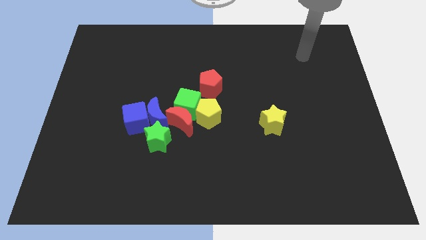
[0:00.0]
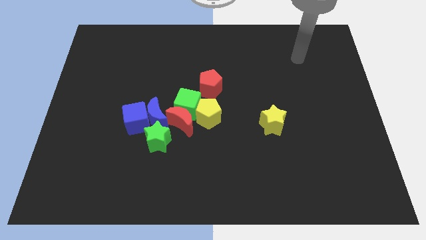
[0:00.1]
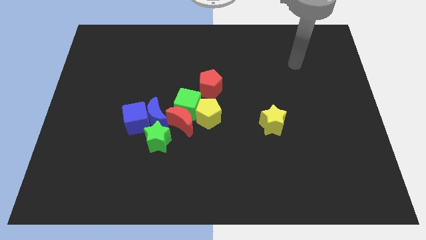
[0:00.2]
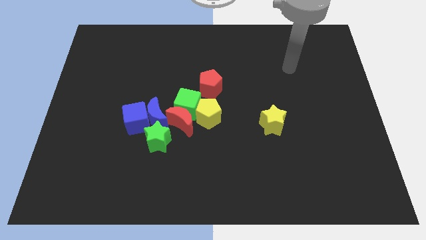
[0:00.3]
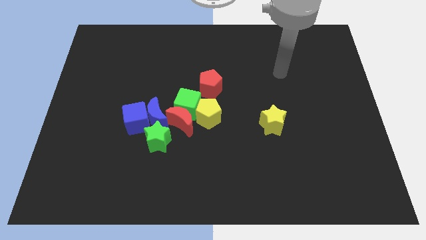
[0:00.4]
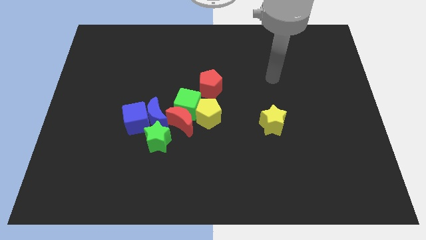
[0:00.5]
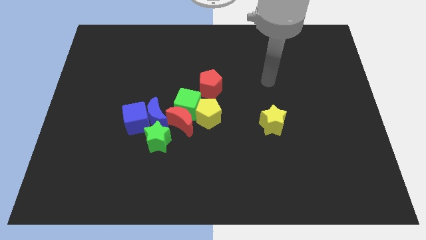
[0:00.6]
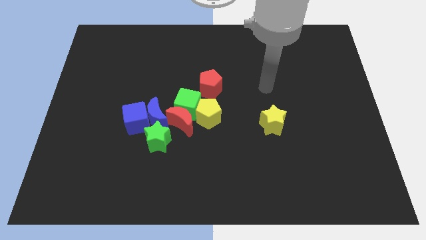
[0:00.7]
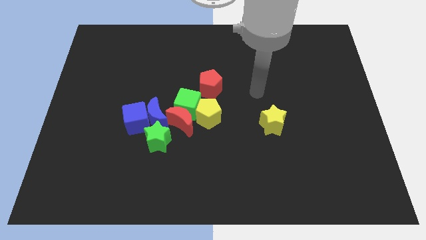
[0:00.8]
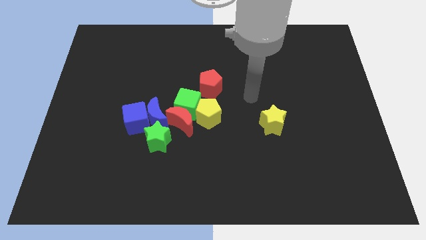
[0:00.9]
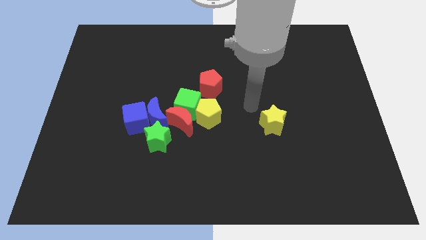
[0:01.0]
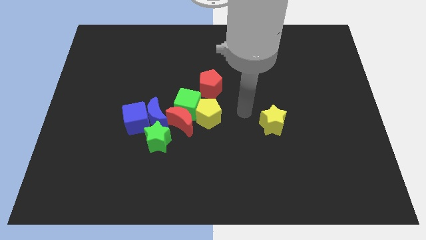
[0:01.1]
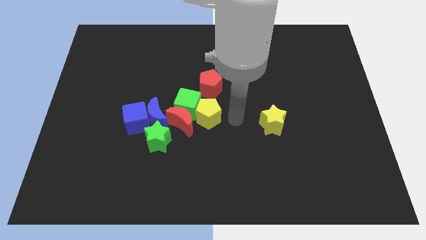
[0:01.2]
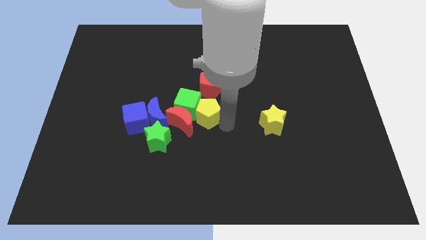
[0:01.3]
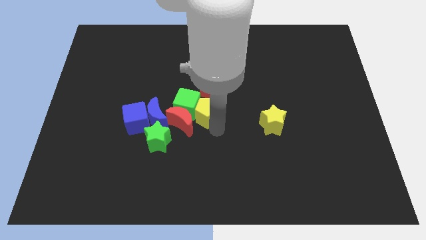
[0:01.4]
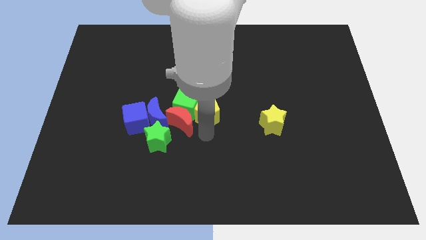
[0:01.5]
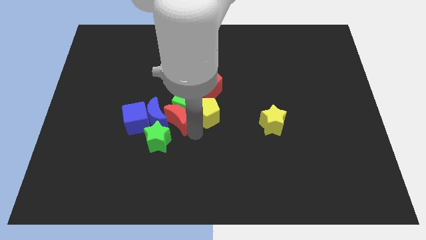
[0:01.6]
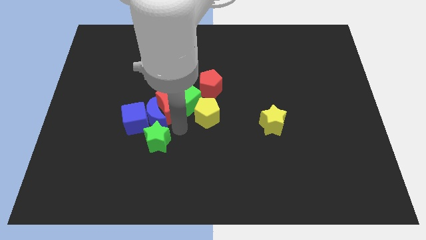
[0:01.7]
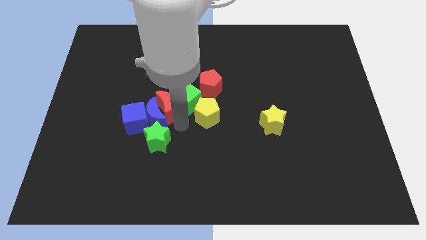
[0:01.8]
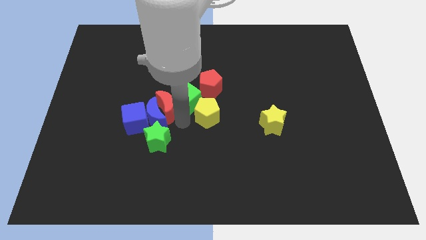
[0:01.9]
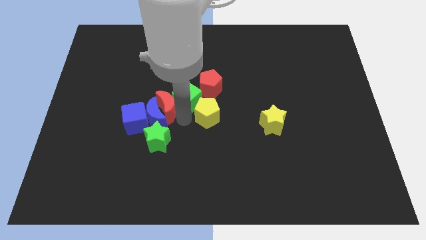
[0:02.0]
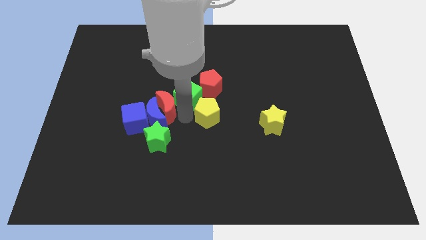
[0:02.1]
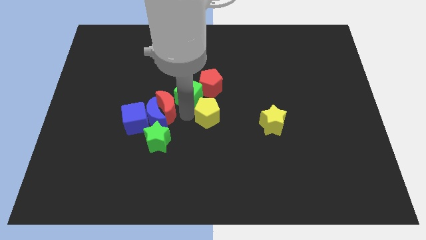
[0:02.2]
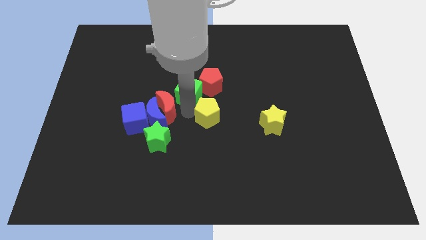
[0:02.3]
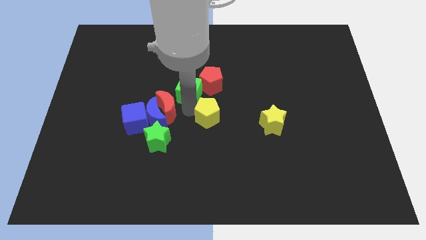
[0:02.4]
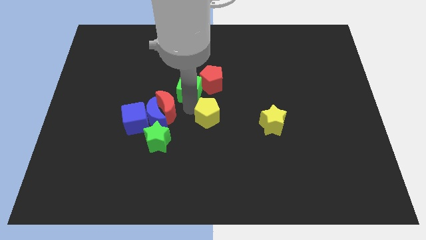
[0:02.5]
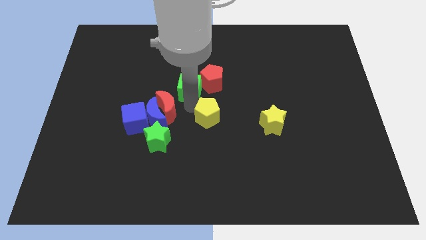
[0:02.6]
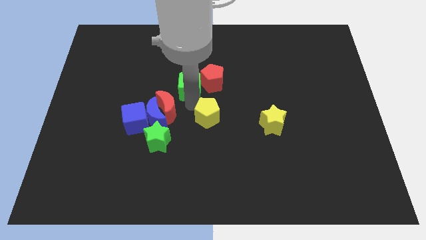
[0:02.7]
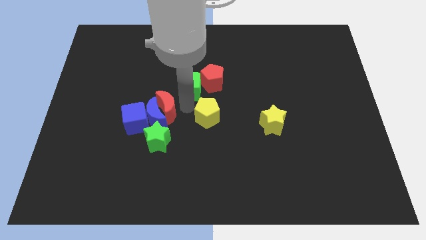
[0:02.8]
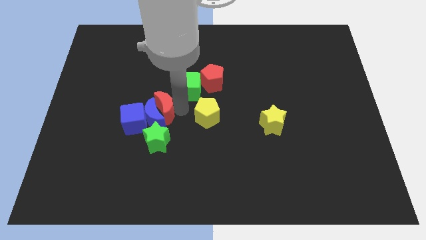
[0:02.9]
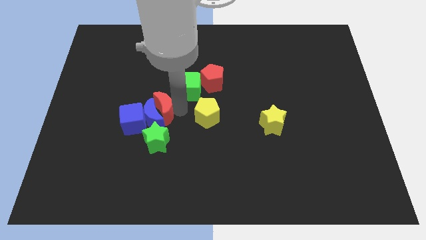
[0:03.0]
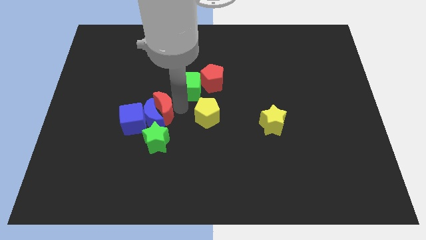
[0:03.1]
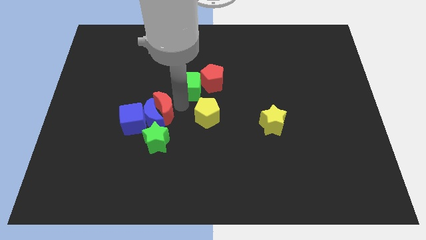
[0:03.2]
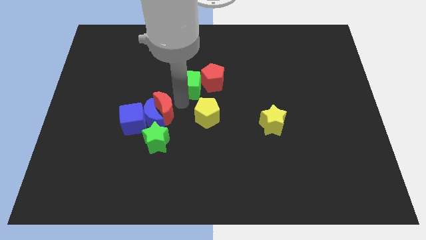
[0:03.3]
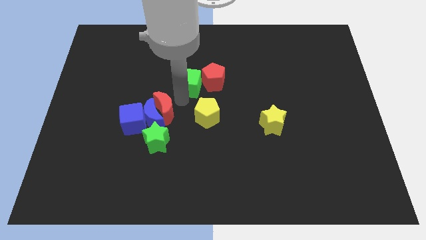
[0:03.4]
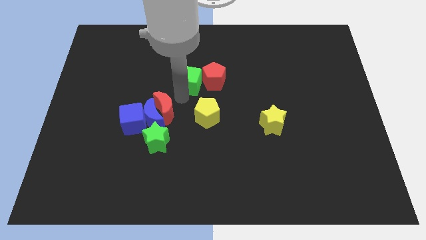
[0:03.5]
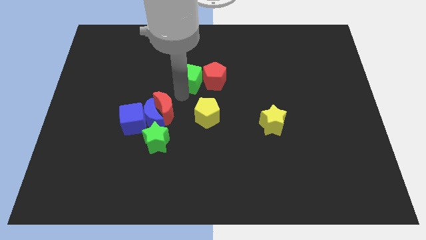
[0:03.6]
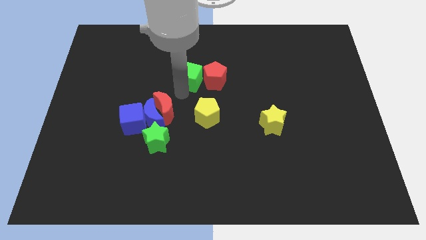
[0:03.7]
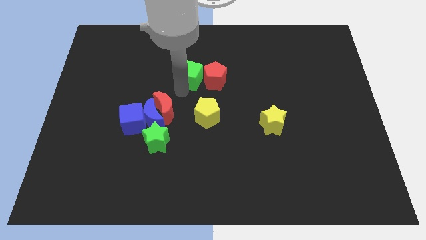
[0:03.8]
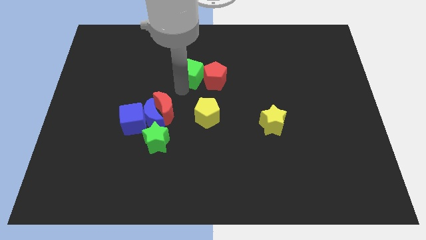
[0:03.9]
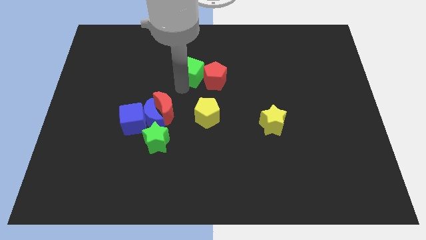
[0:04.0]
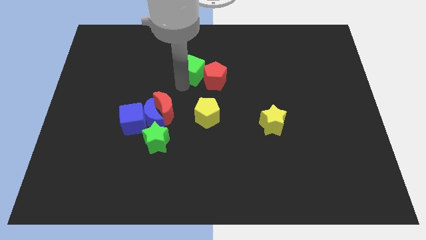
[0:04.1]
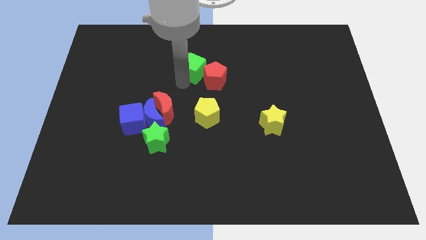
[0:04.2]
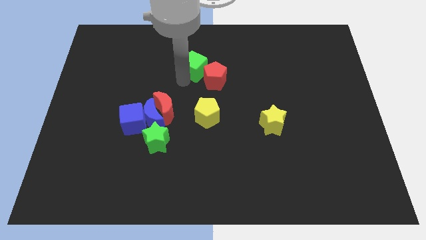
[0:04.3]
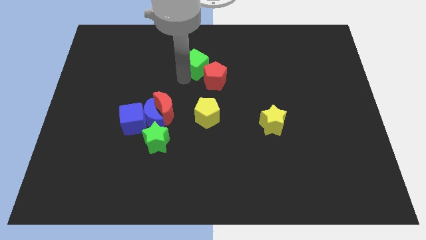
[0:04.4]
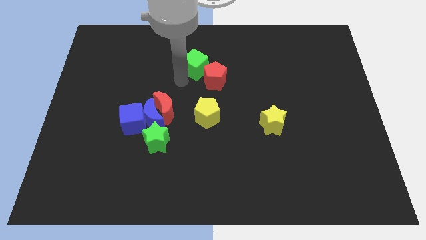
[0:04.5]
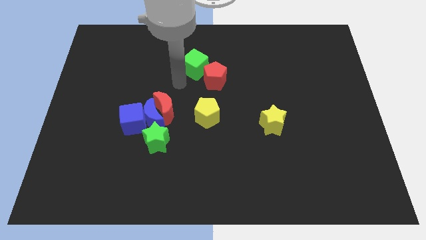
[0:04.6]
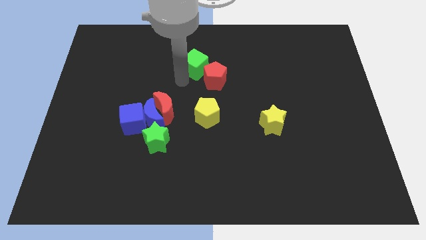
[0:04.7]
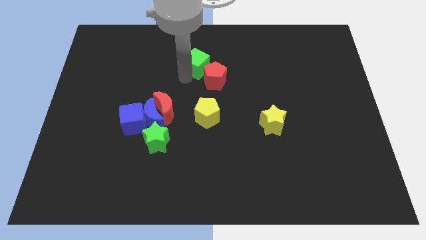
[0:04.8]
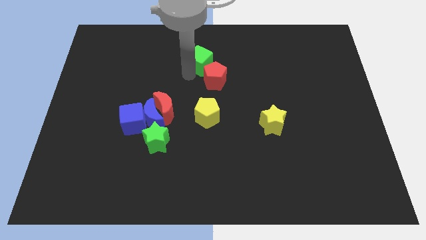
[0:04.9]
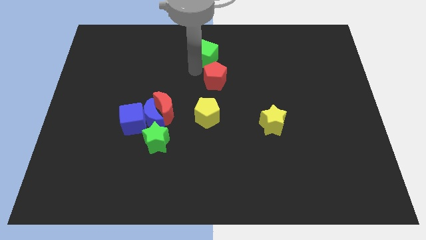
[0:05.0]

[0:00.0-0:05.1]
slide the green cube to the towards your base

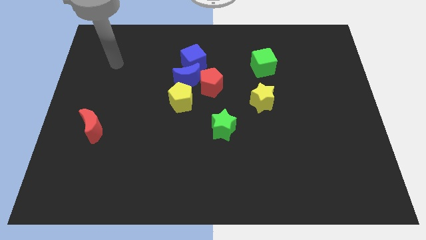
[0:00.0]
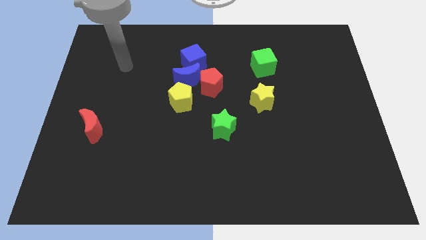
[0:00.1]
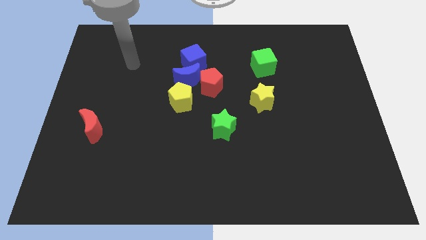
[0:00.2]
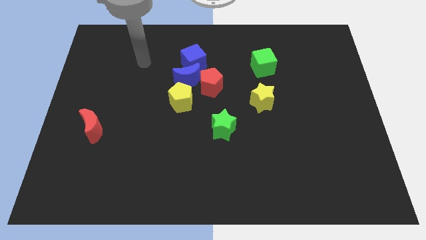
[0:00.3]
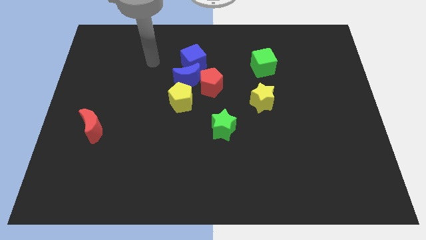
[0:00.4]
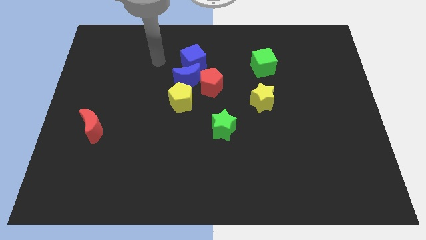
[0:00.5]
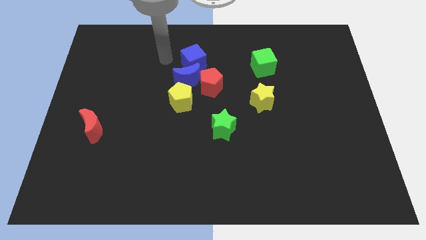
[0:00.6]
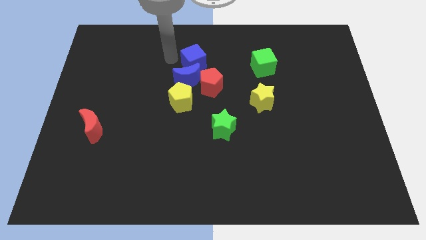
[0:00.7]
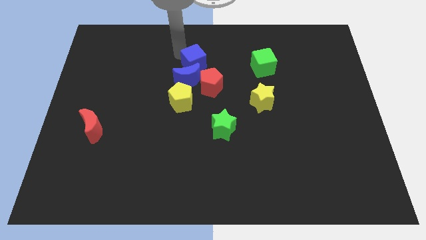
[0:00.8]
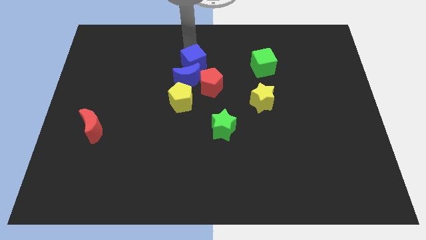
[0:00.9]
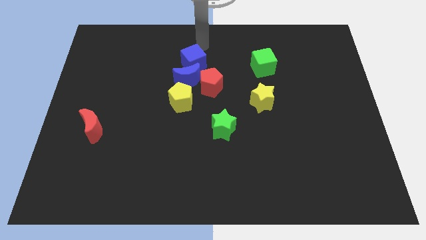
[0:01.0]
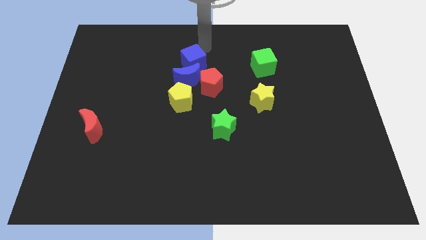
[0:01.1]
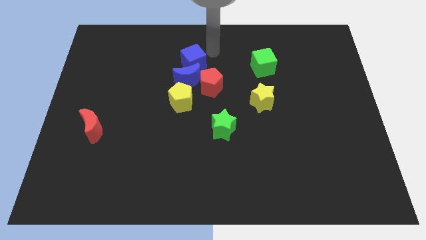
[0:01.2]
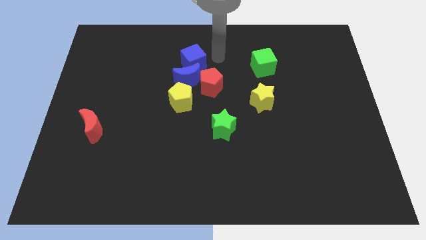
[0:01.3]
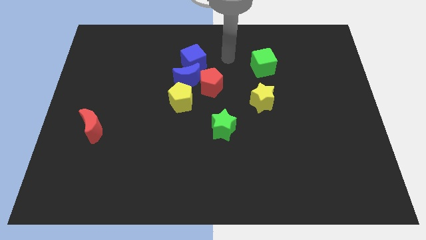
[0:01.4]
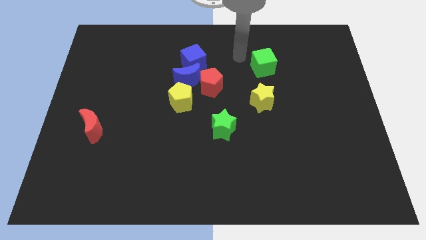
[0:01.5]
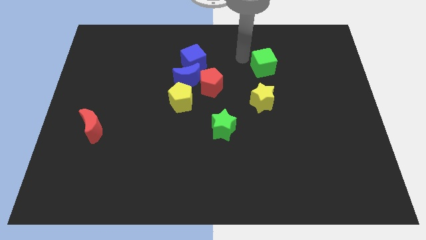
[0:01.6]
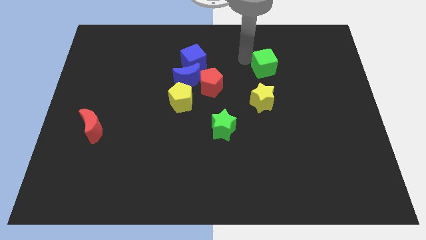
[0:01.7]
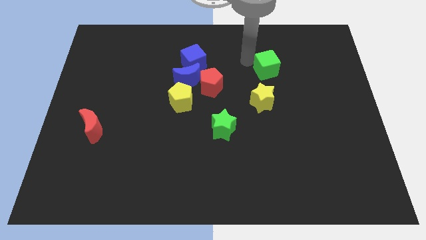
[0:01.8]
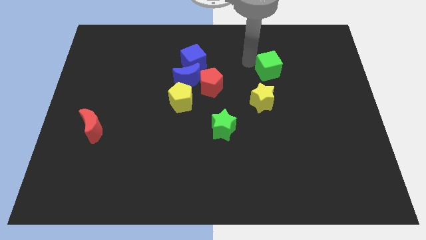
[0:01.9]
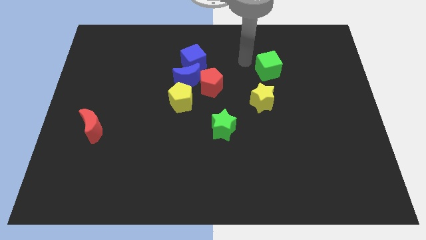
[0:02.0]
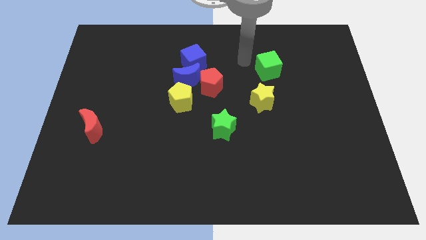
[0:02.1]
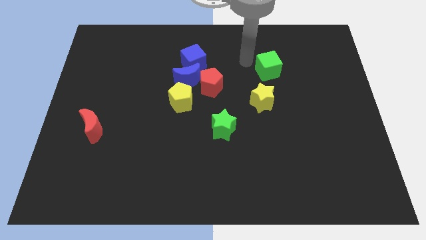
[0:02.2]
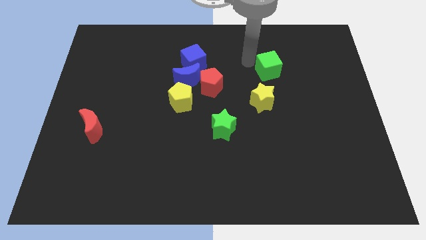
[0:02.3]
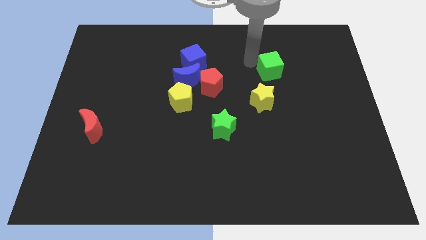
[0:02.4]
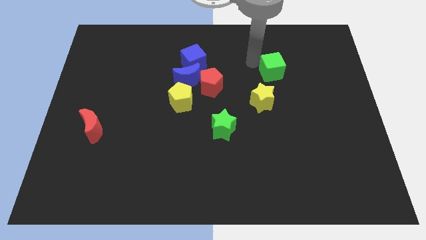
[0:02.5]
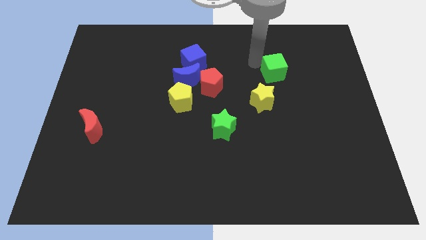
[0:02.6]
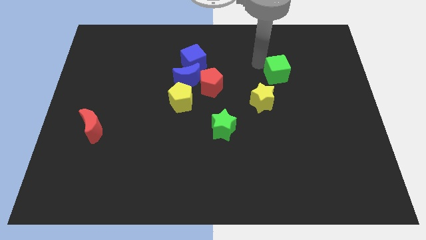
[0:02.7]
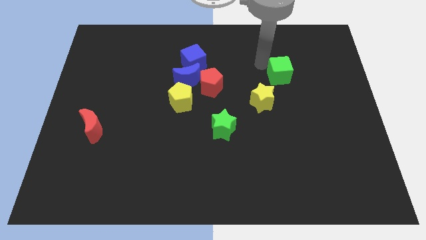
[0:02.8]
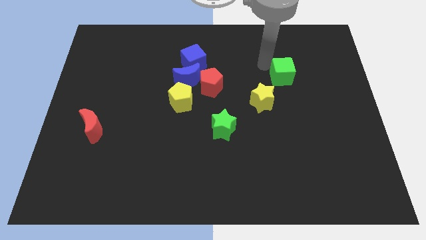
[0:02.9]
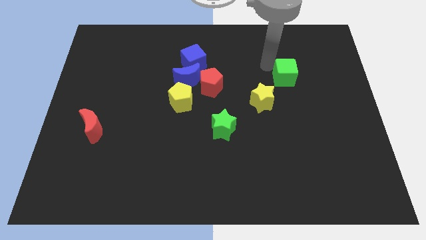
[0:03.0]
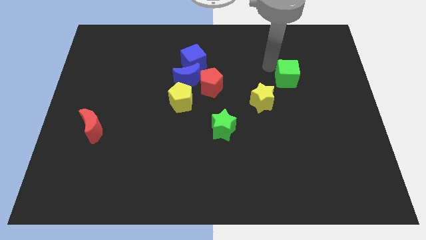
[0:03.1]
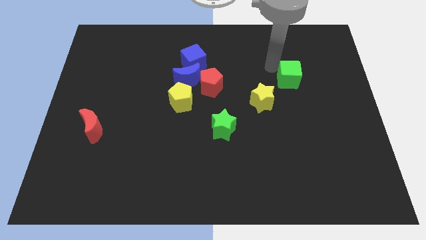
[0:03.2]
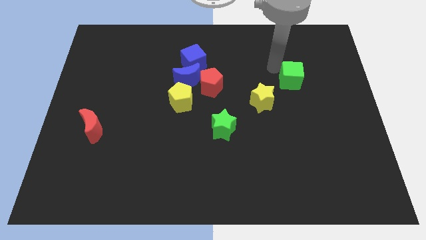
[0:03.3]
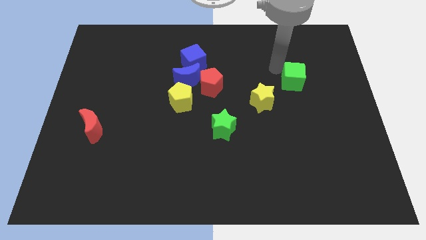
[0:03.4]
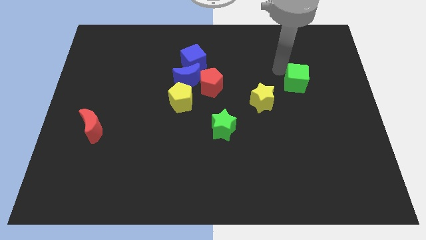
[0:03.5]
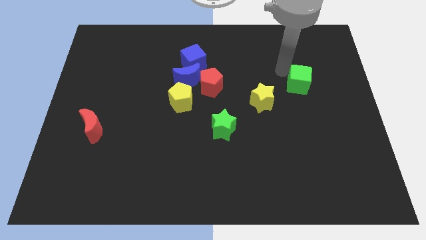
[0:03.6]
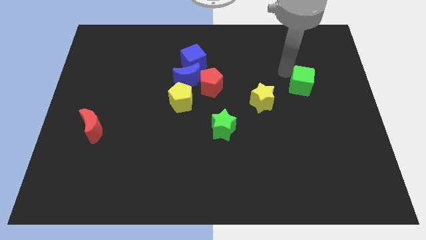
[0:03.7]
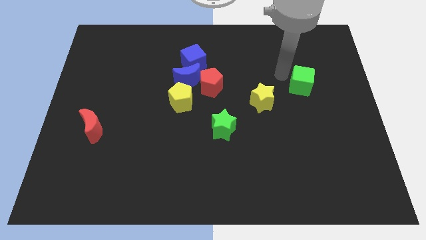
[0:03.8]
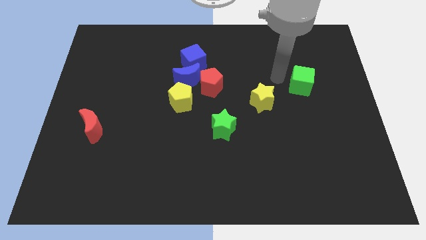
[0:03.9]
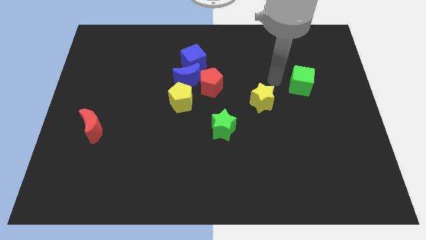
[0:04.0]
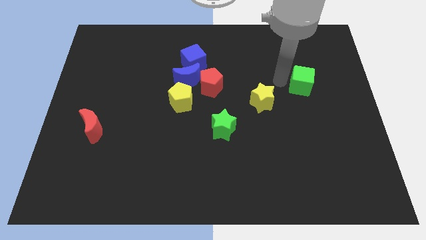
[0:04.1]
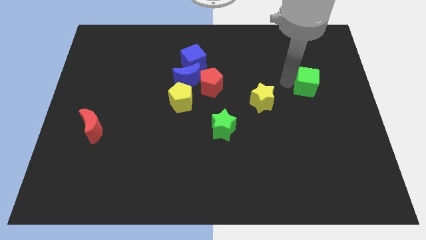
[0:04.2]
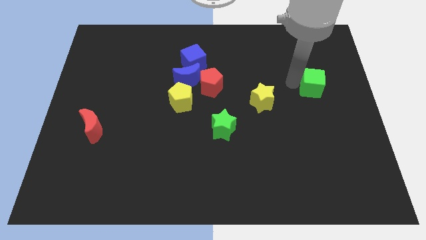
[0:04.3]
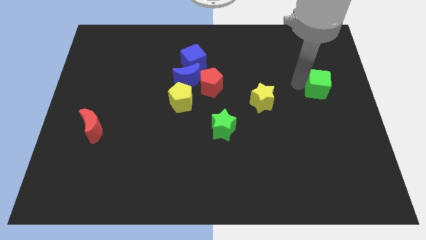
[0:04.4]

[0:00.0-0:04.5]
push the green cube to the right side of the board
